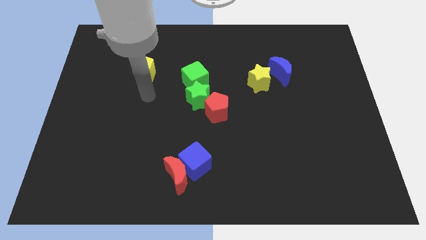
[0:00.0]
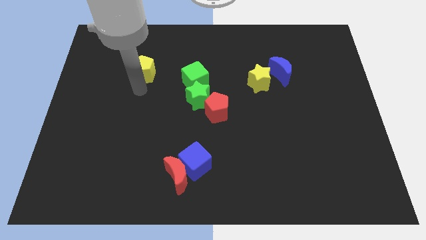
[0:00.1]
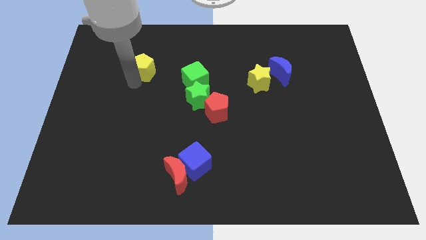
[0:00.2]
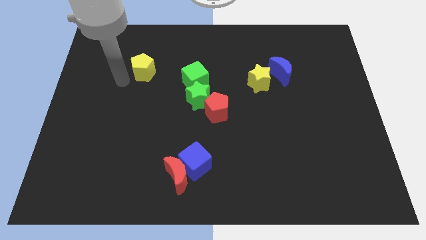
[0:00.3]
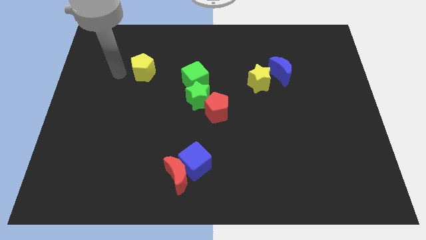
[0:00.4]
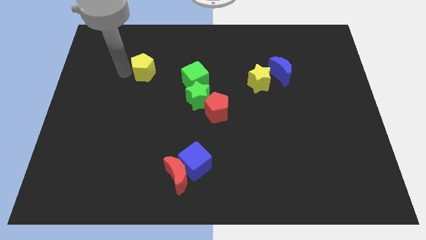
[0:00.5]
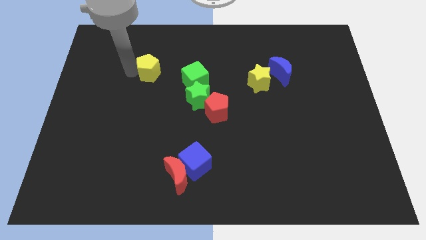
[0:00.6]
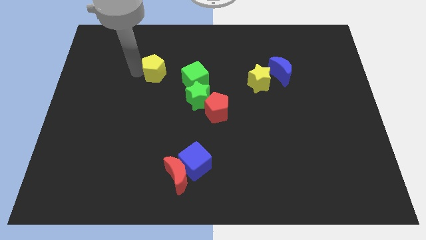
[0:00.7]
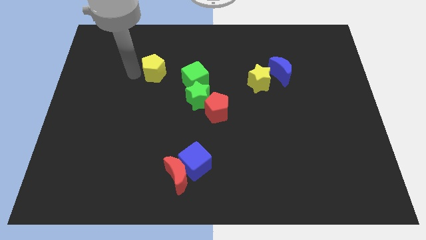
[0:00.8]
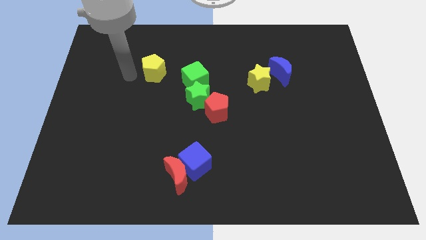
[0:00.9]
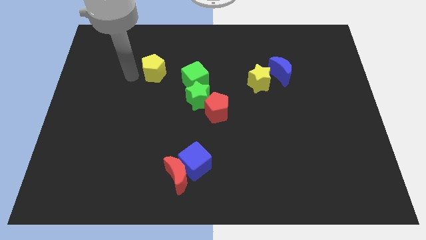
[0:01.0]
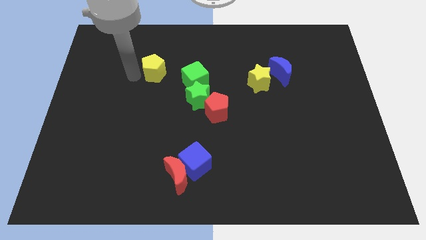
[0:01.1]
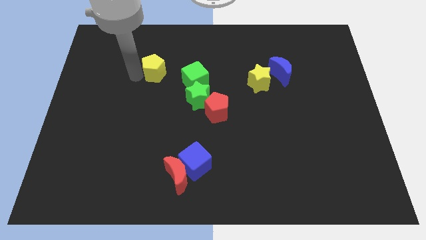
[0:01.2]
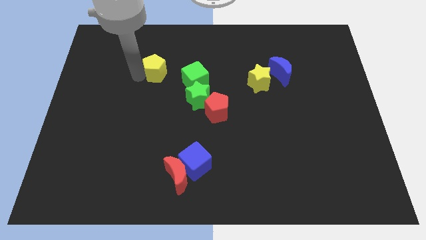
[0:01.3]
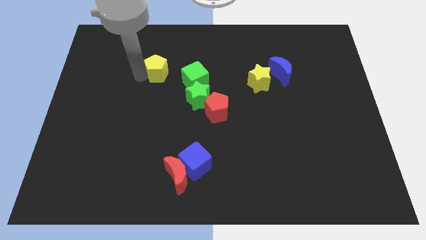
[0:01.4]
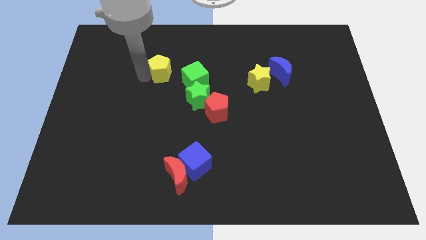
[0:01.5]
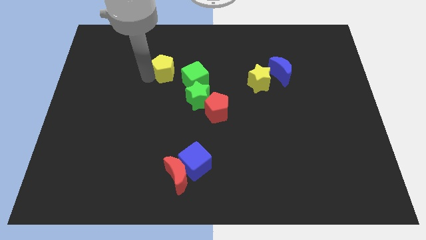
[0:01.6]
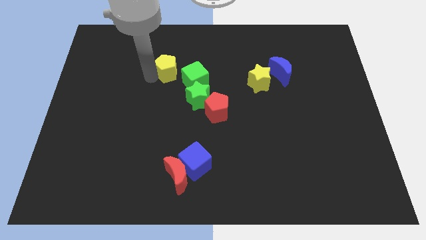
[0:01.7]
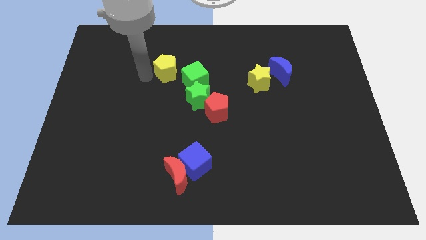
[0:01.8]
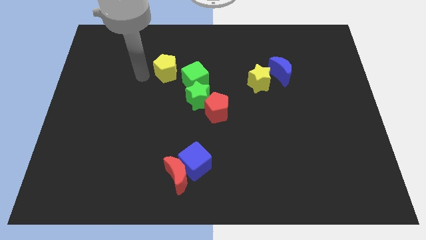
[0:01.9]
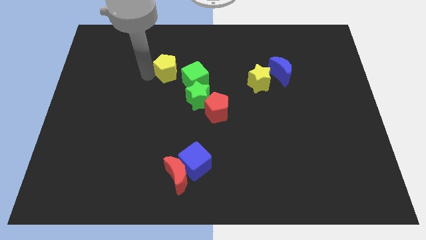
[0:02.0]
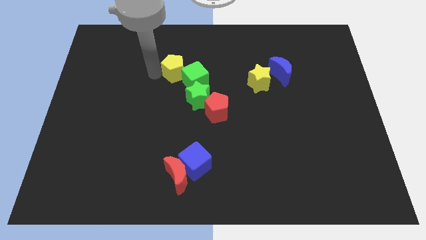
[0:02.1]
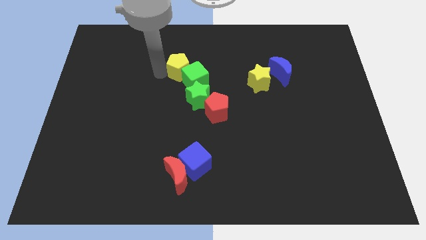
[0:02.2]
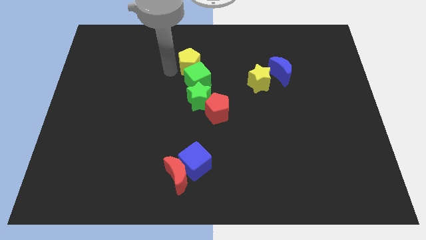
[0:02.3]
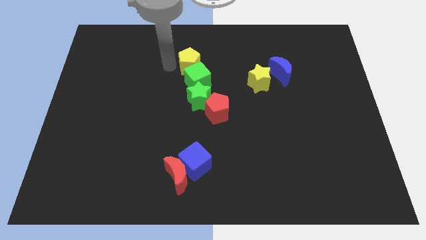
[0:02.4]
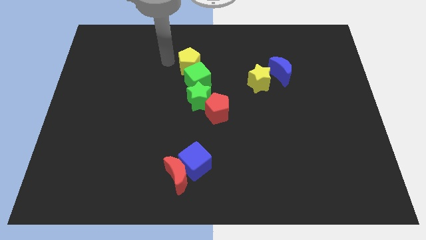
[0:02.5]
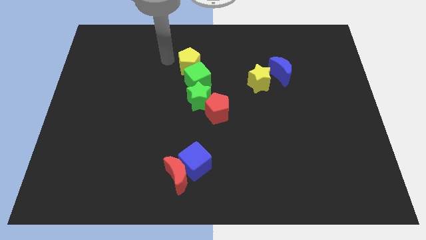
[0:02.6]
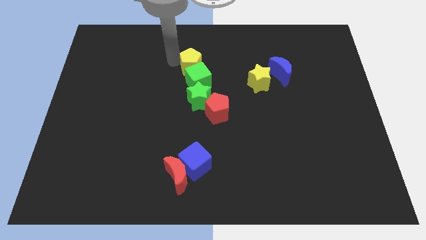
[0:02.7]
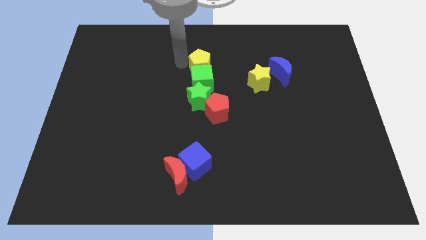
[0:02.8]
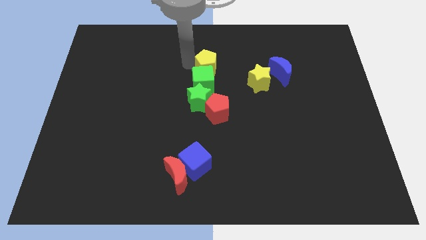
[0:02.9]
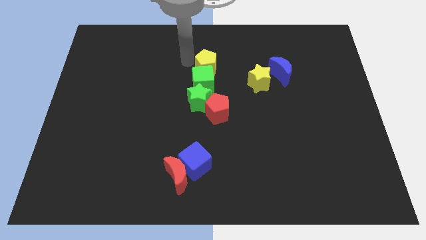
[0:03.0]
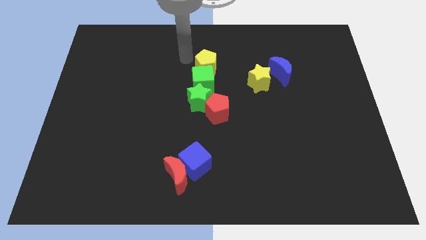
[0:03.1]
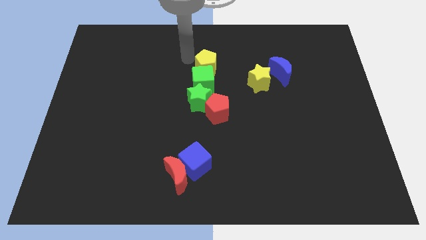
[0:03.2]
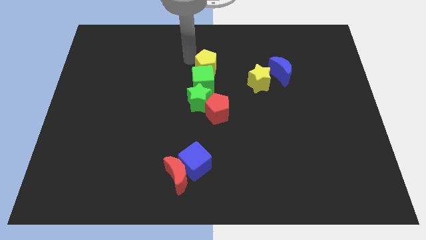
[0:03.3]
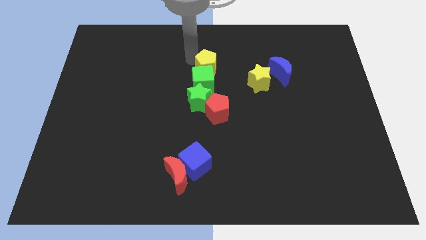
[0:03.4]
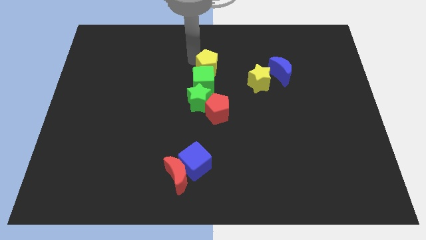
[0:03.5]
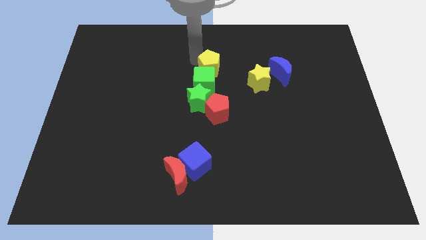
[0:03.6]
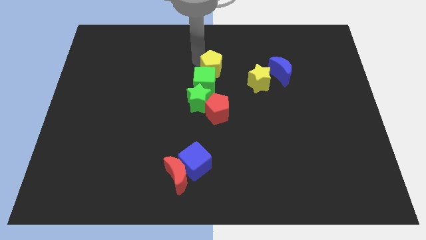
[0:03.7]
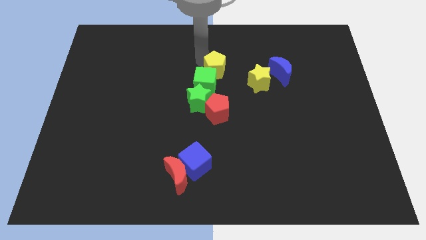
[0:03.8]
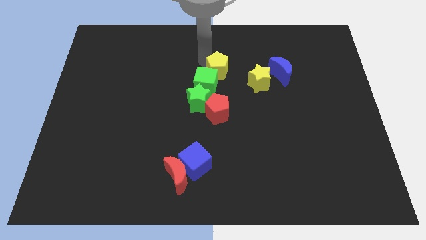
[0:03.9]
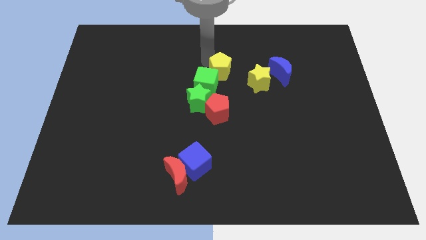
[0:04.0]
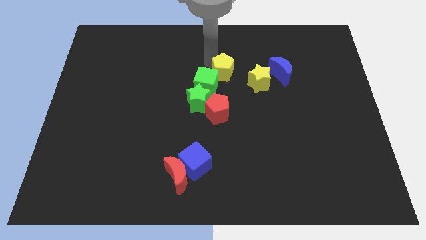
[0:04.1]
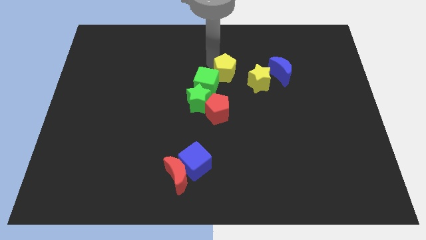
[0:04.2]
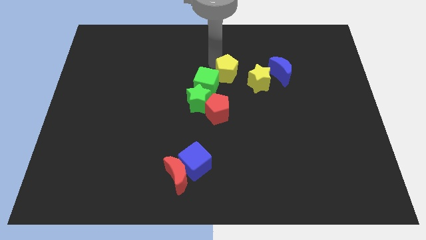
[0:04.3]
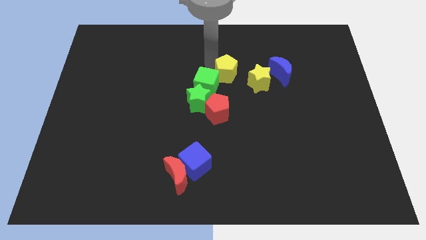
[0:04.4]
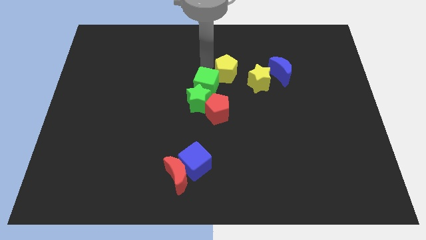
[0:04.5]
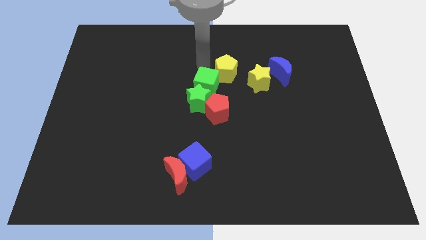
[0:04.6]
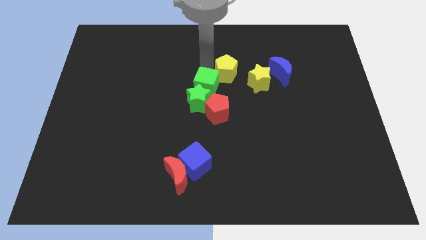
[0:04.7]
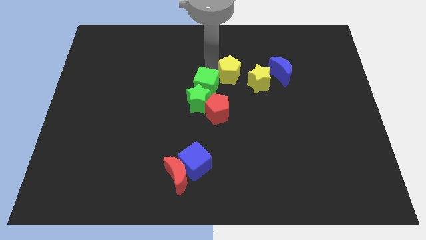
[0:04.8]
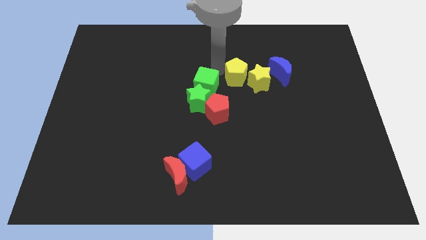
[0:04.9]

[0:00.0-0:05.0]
move the yellow pentagon to the yellow star

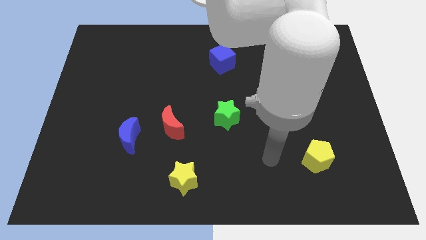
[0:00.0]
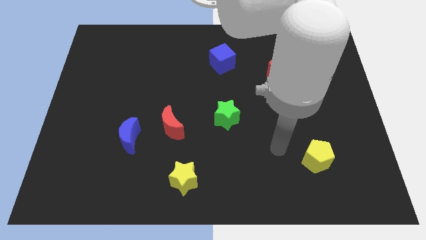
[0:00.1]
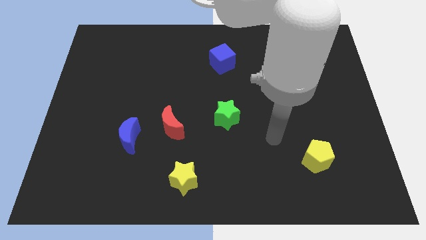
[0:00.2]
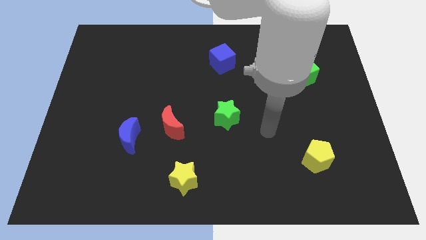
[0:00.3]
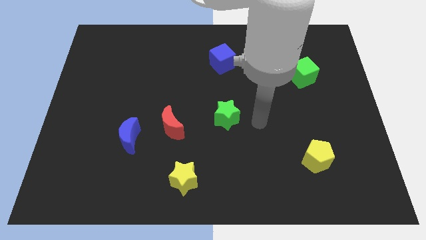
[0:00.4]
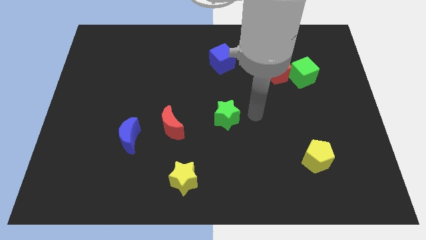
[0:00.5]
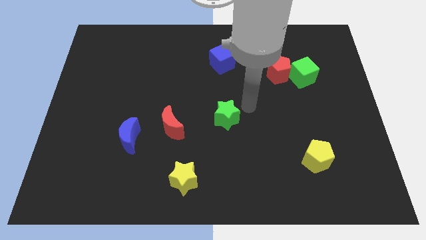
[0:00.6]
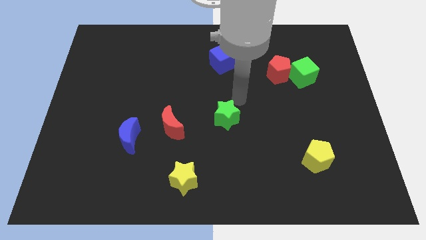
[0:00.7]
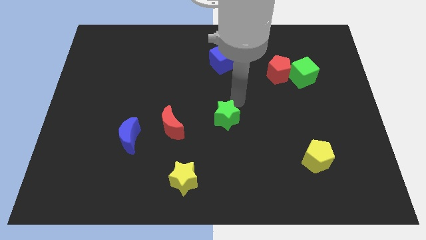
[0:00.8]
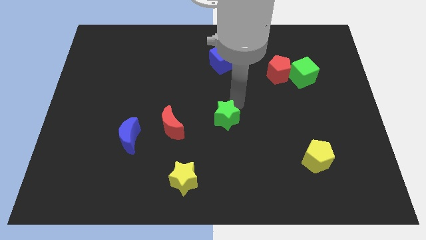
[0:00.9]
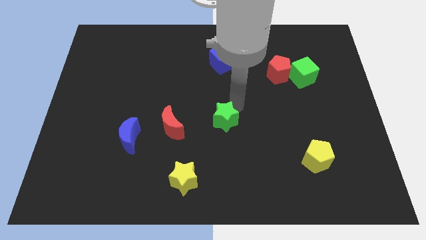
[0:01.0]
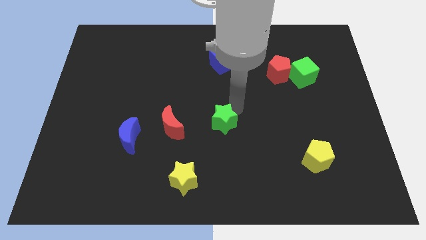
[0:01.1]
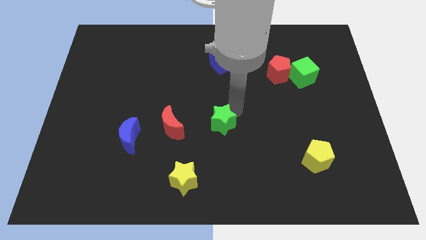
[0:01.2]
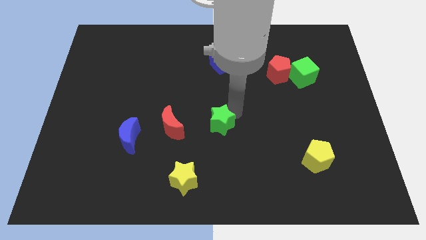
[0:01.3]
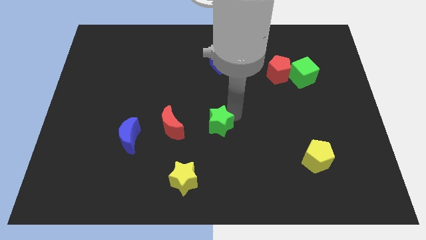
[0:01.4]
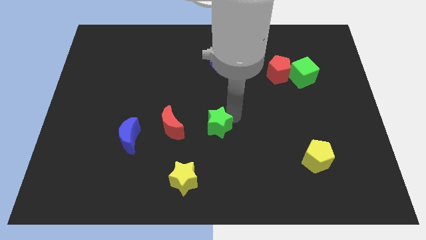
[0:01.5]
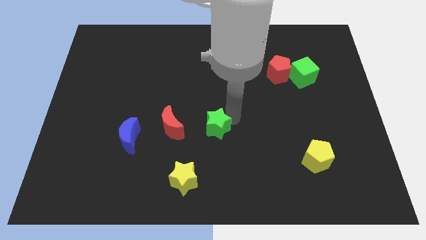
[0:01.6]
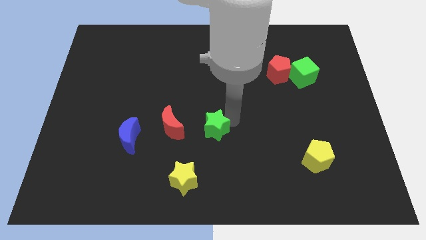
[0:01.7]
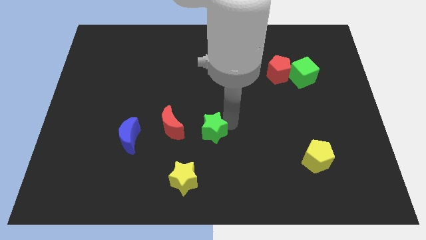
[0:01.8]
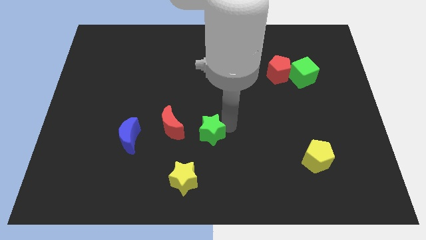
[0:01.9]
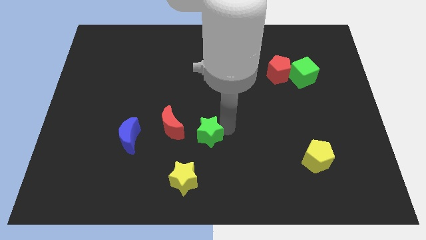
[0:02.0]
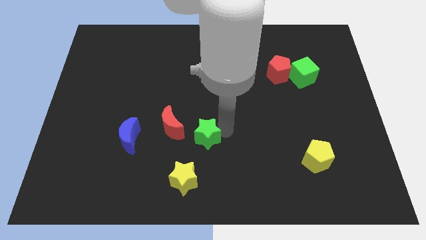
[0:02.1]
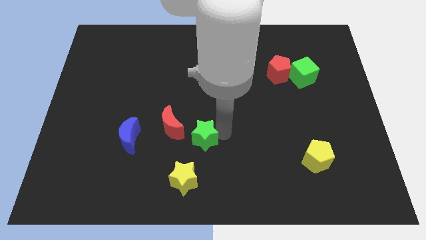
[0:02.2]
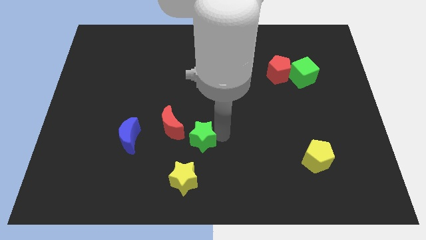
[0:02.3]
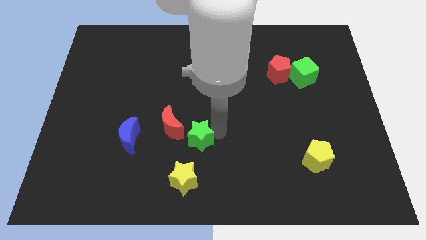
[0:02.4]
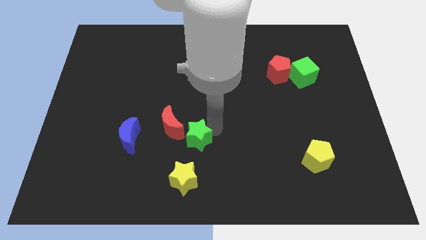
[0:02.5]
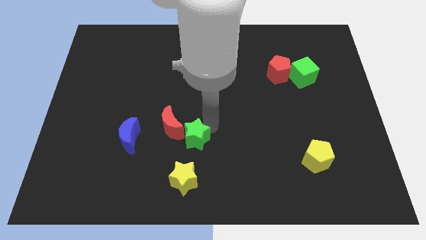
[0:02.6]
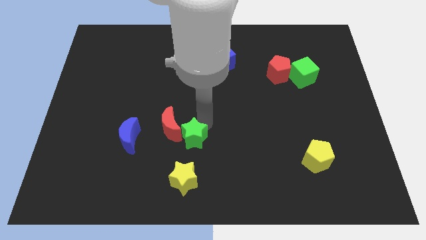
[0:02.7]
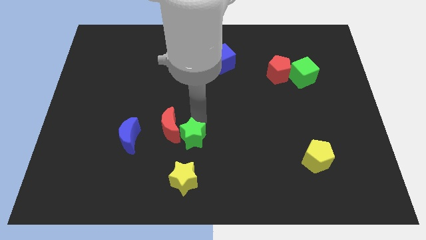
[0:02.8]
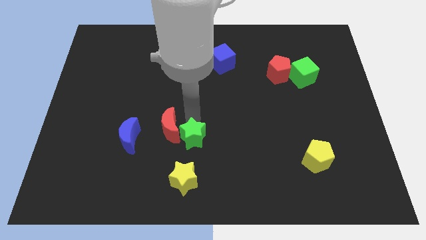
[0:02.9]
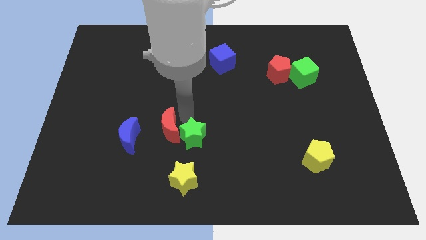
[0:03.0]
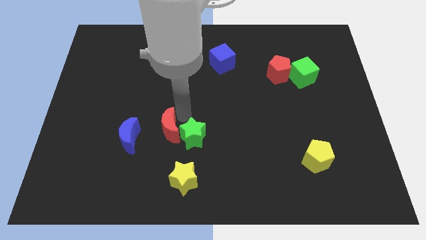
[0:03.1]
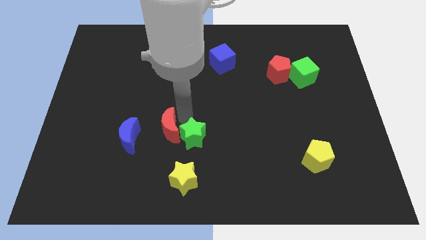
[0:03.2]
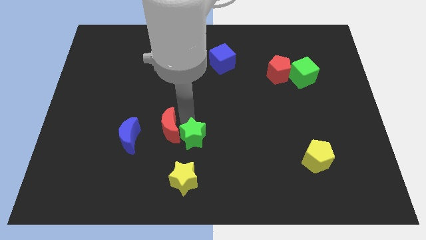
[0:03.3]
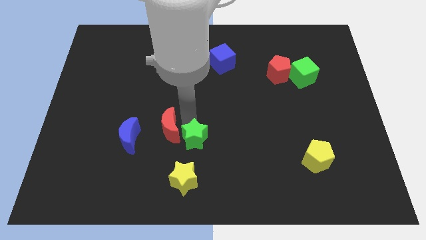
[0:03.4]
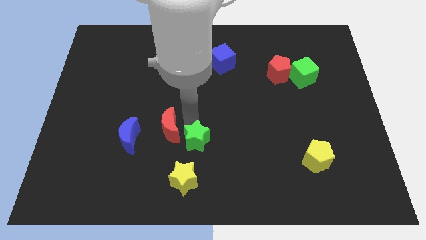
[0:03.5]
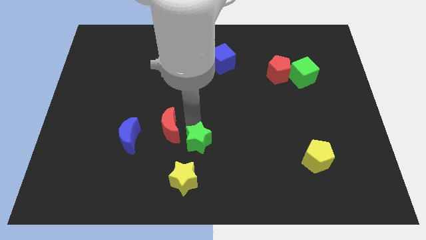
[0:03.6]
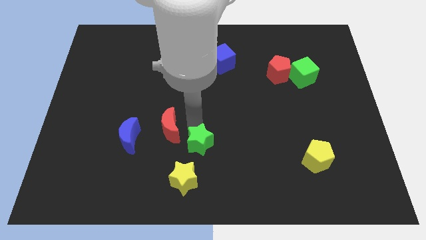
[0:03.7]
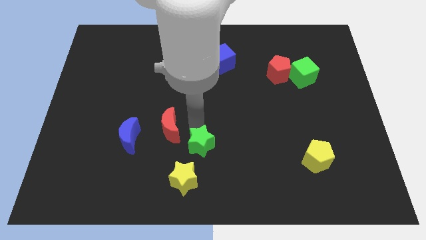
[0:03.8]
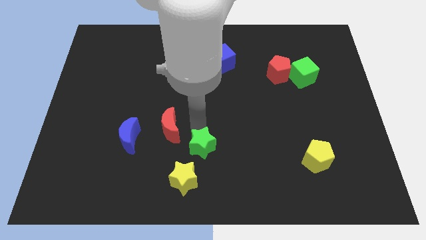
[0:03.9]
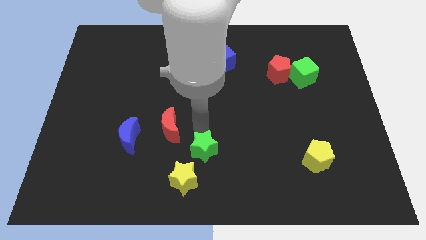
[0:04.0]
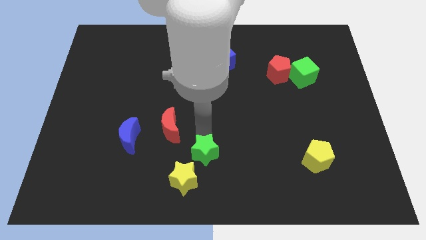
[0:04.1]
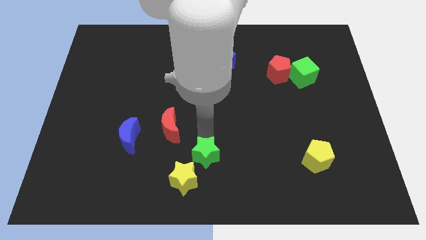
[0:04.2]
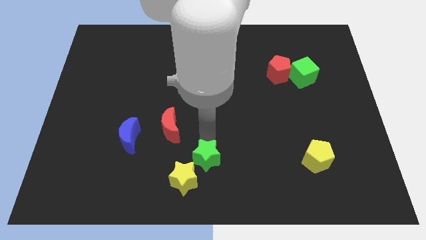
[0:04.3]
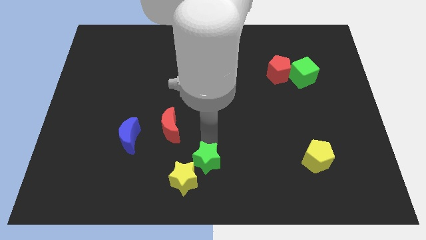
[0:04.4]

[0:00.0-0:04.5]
push the green star to the yellow star
